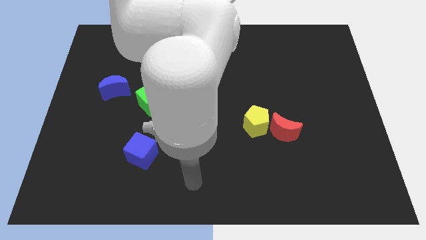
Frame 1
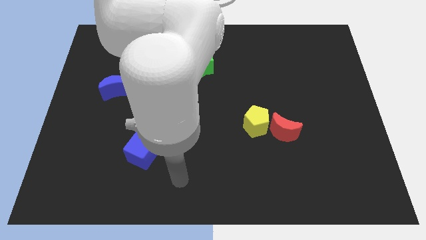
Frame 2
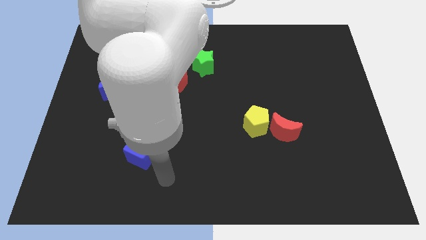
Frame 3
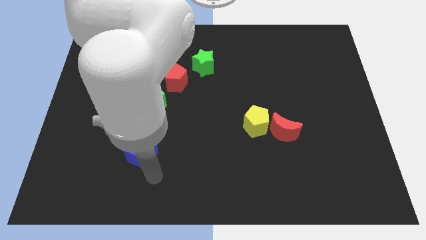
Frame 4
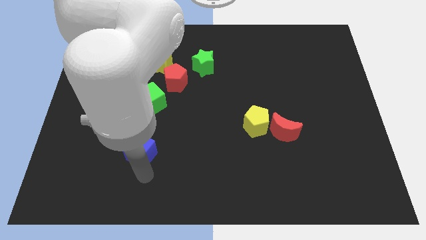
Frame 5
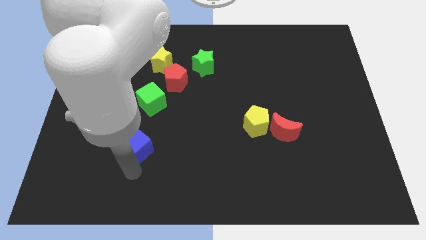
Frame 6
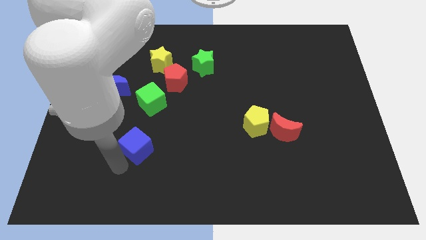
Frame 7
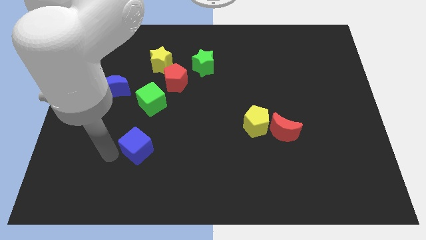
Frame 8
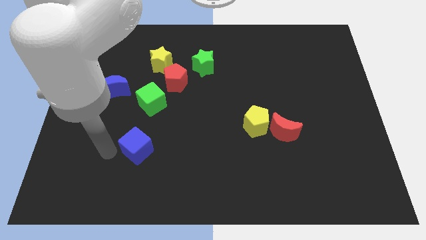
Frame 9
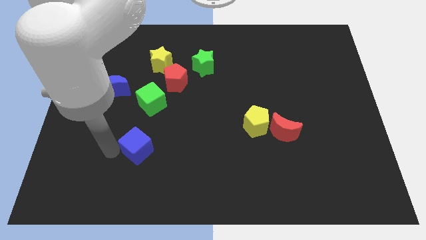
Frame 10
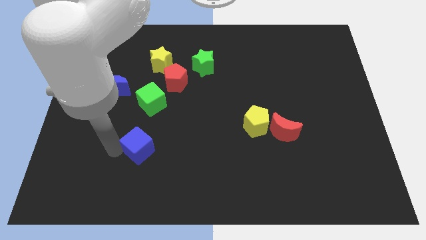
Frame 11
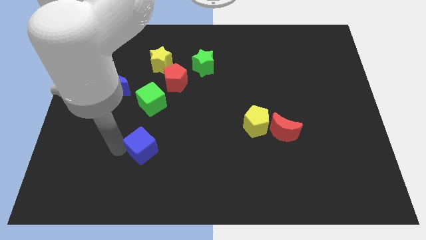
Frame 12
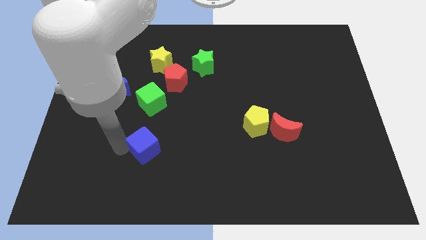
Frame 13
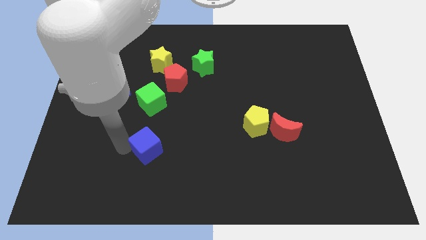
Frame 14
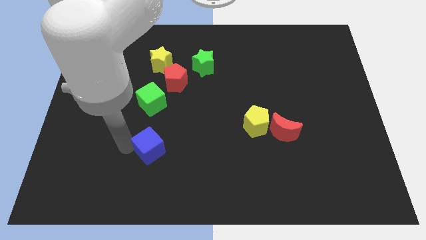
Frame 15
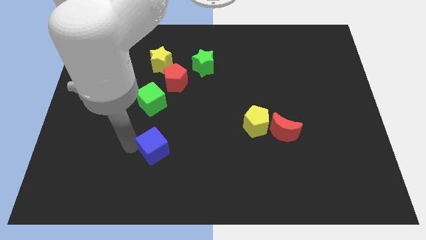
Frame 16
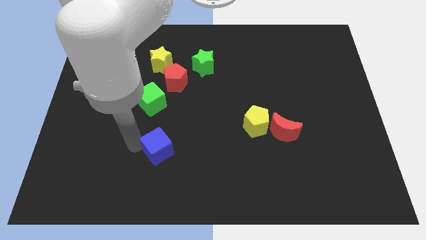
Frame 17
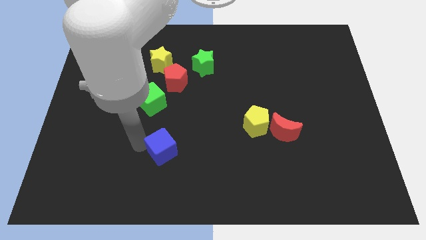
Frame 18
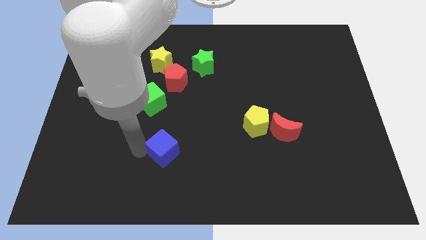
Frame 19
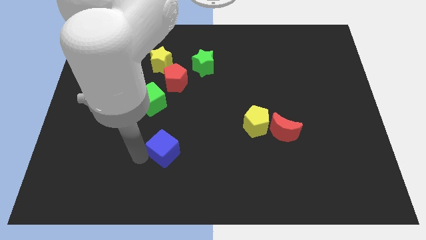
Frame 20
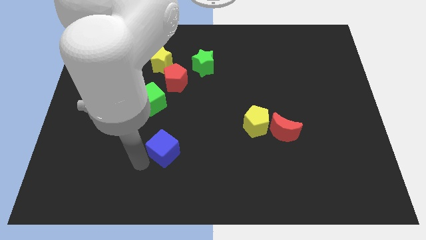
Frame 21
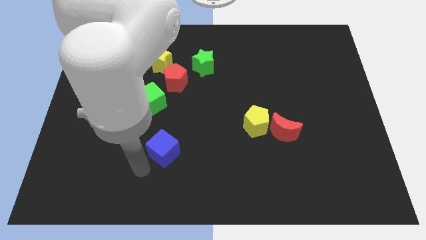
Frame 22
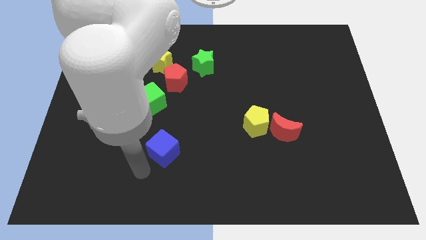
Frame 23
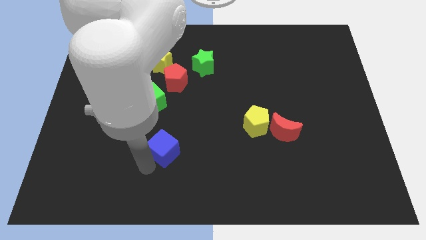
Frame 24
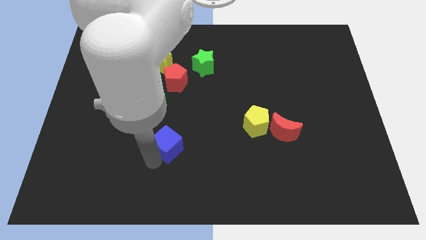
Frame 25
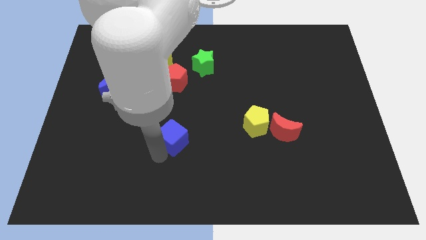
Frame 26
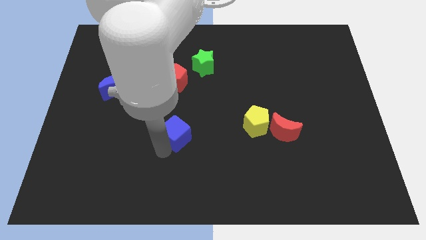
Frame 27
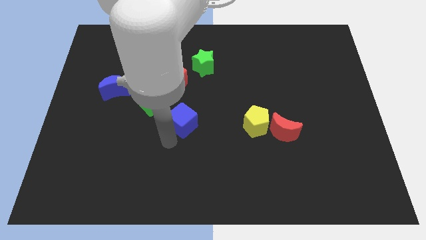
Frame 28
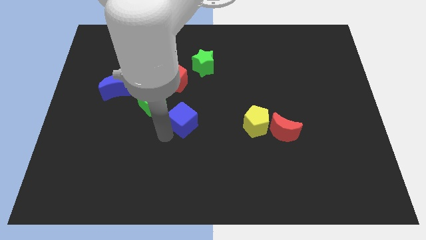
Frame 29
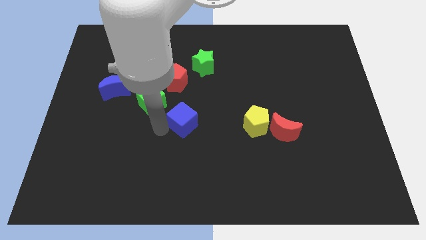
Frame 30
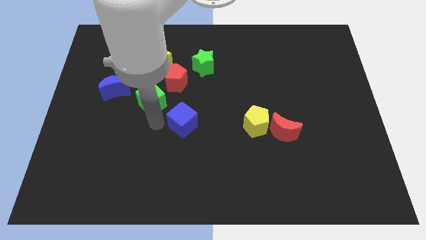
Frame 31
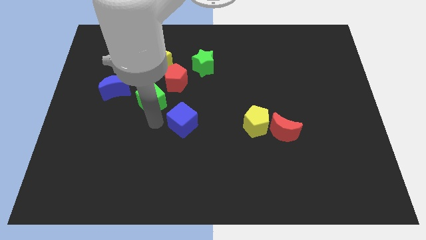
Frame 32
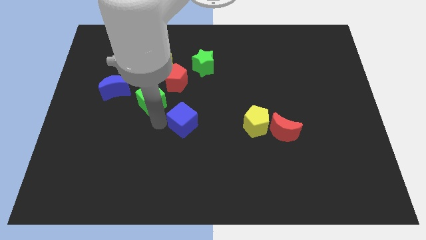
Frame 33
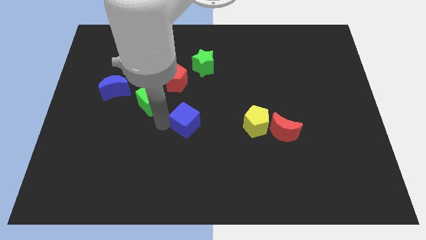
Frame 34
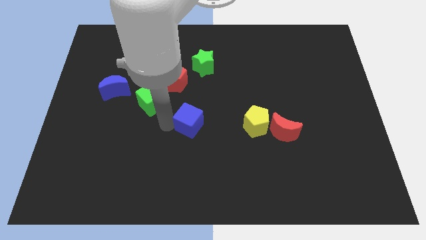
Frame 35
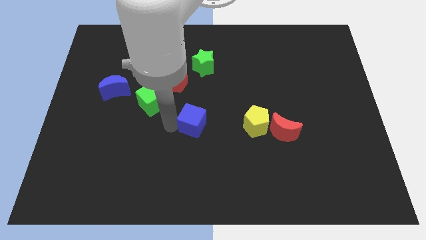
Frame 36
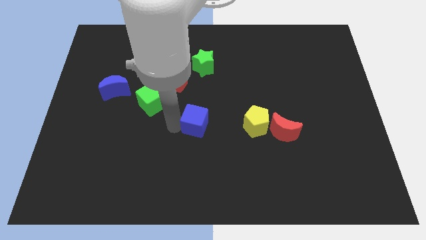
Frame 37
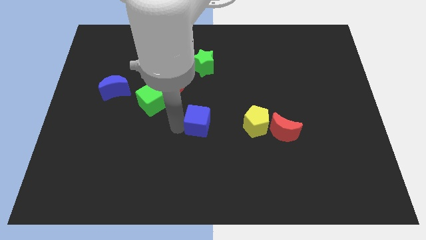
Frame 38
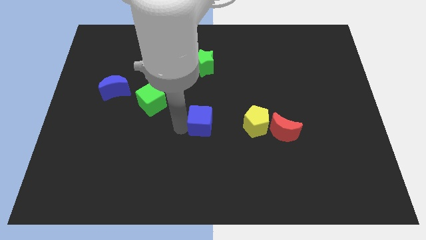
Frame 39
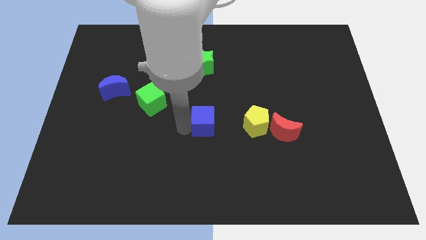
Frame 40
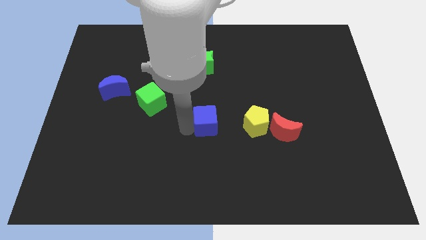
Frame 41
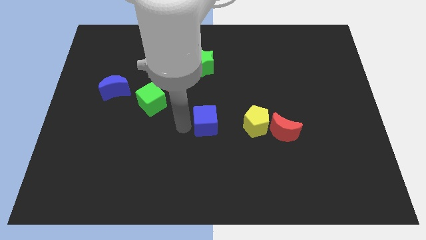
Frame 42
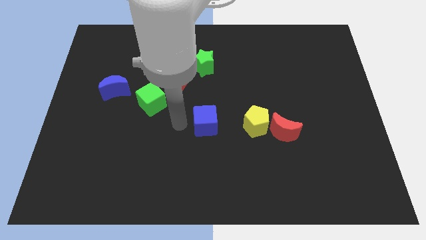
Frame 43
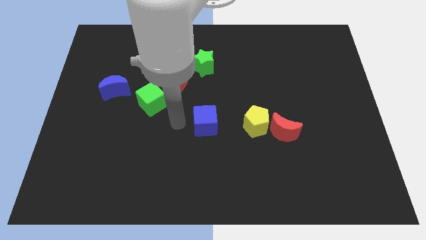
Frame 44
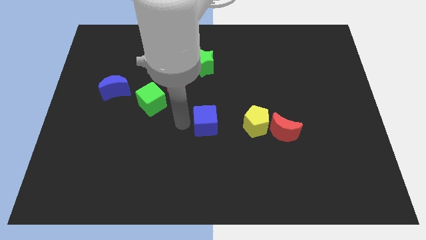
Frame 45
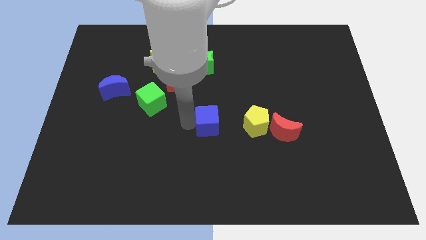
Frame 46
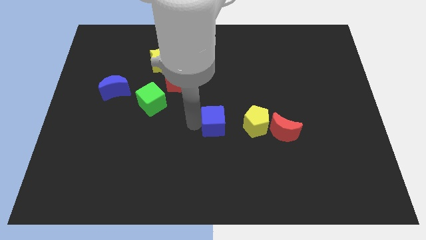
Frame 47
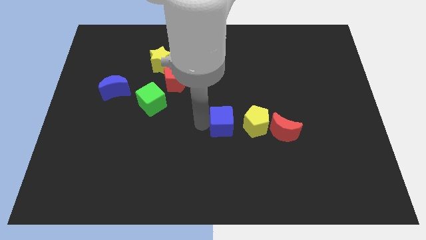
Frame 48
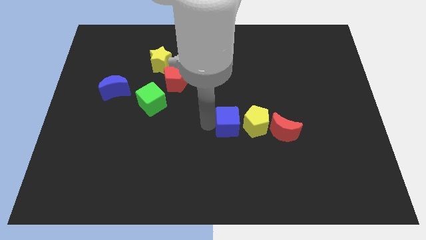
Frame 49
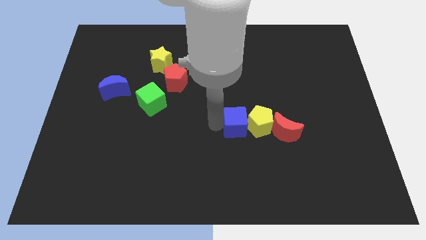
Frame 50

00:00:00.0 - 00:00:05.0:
move the blue cube towards the yellow pentagon

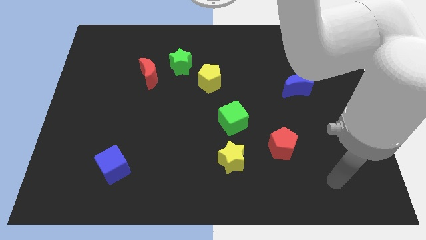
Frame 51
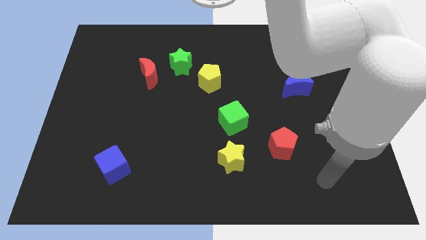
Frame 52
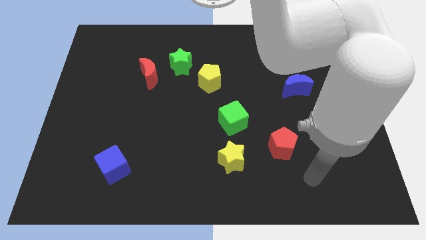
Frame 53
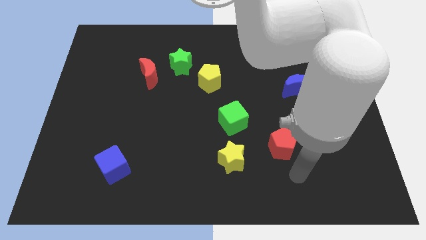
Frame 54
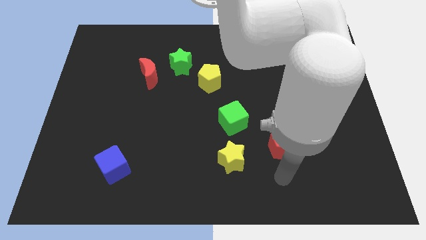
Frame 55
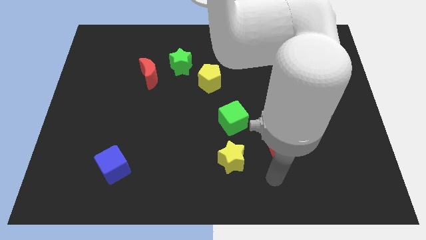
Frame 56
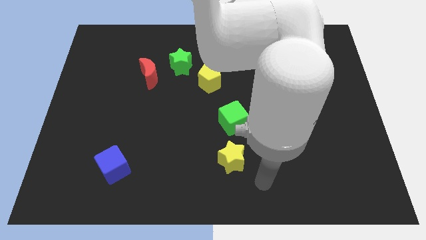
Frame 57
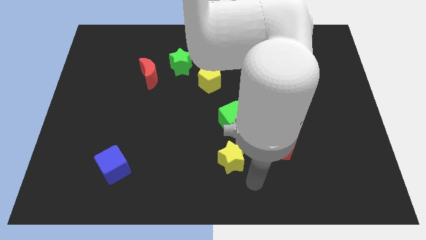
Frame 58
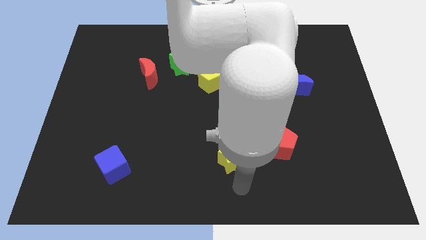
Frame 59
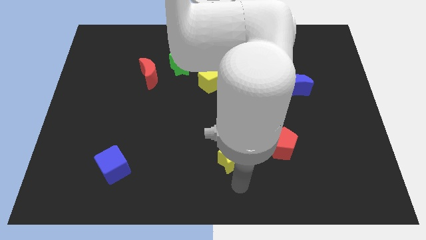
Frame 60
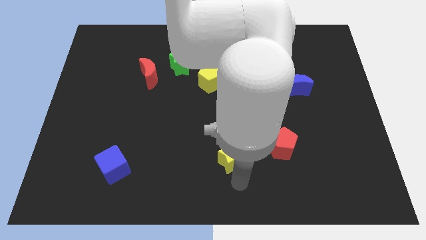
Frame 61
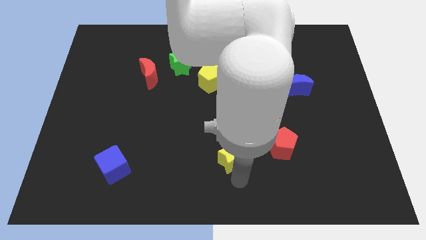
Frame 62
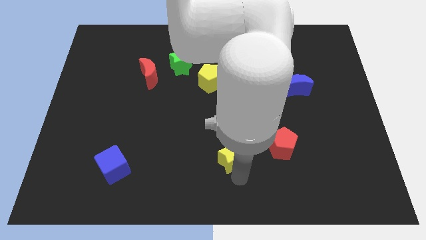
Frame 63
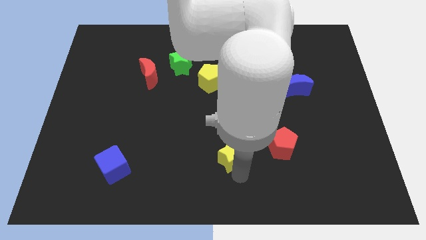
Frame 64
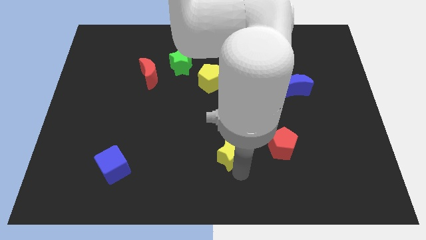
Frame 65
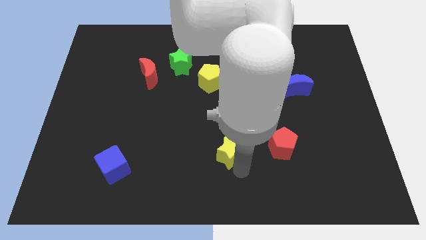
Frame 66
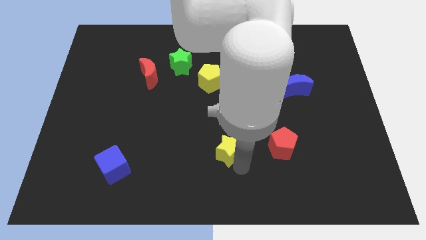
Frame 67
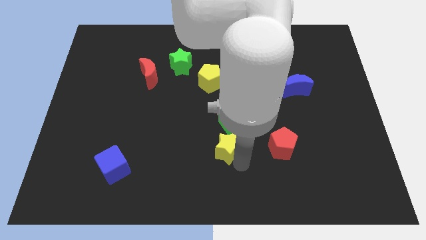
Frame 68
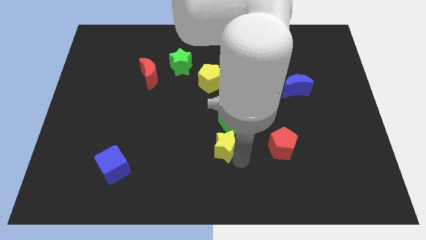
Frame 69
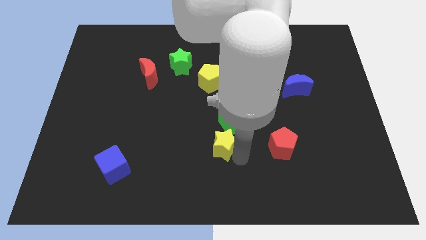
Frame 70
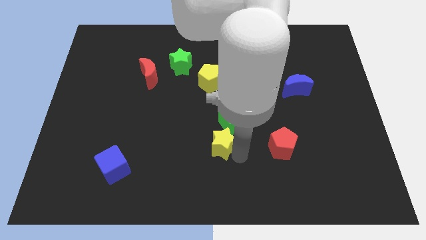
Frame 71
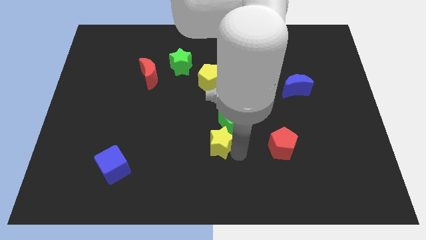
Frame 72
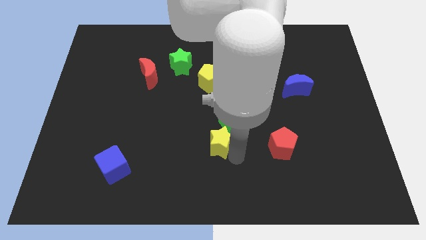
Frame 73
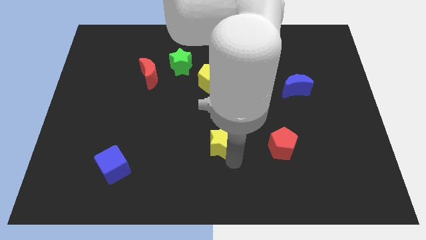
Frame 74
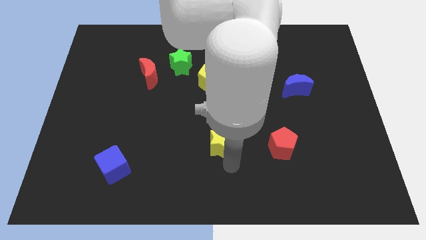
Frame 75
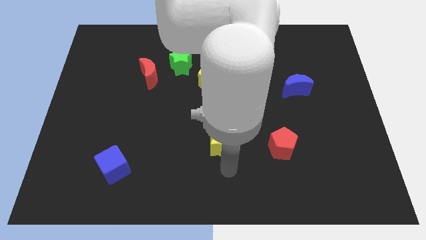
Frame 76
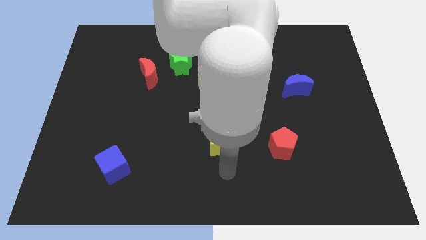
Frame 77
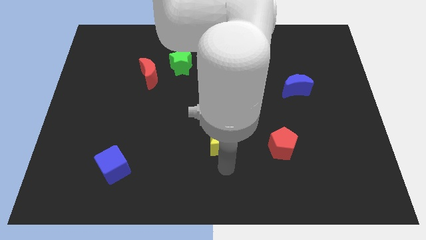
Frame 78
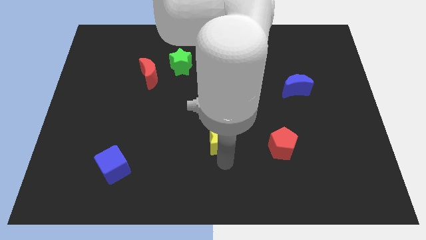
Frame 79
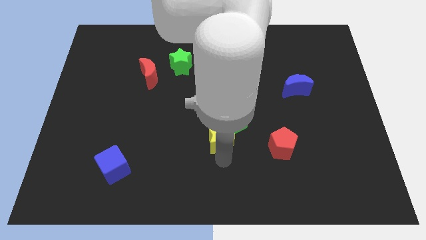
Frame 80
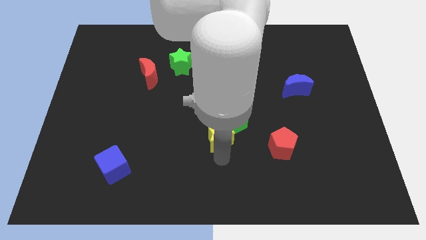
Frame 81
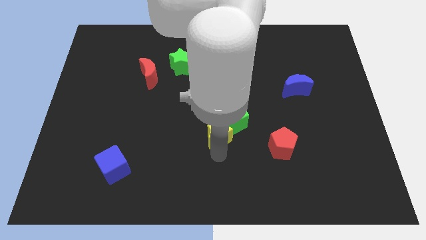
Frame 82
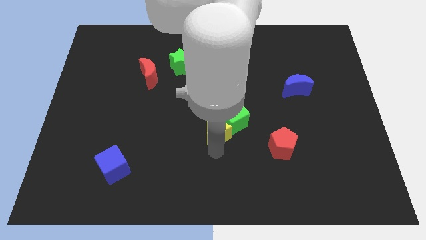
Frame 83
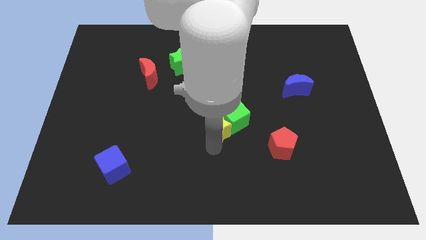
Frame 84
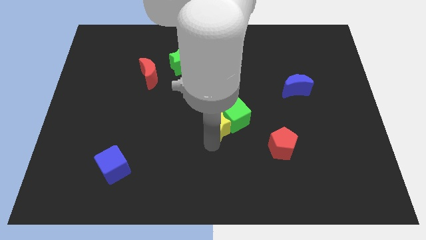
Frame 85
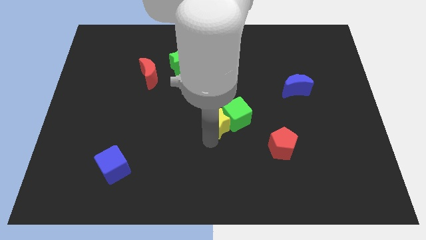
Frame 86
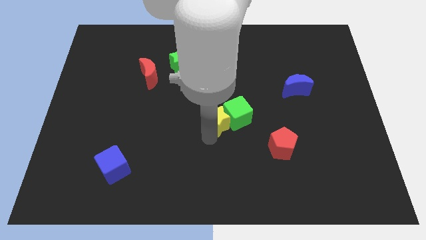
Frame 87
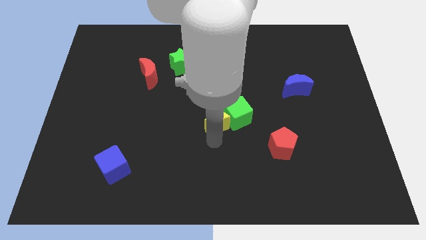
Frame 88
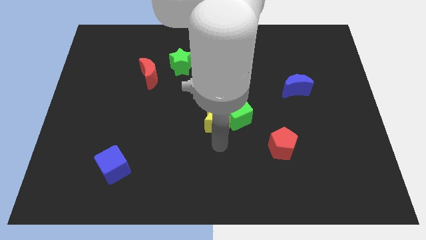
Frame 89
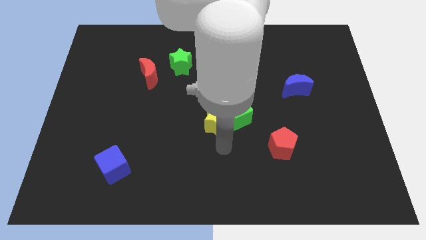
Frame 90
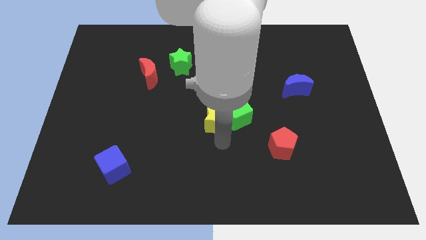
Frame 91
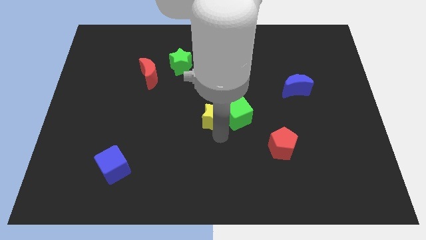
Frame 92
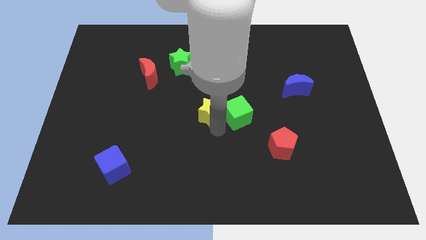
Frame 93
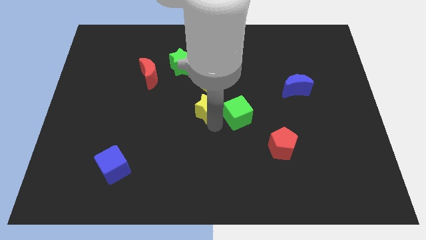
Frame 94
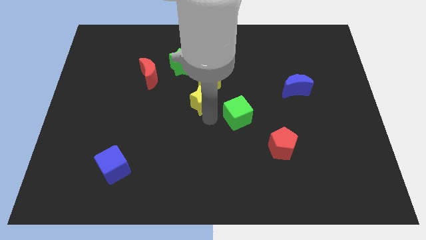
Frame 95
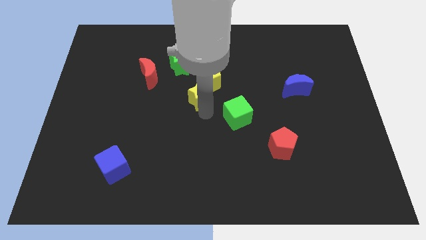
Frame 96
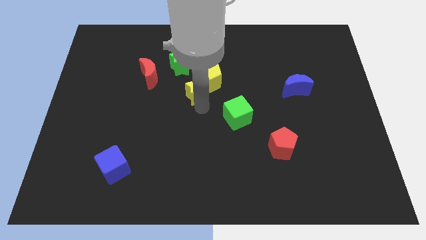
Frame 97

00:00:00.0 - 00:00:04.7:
put the yellow star towards the yellow pentagon
